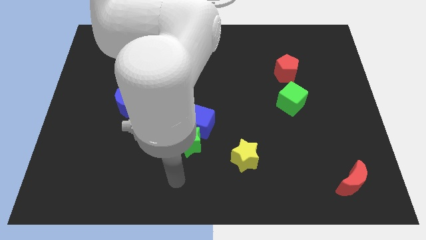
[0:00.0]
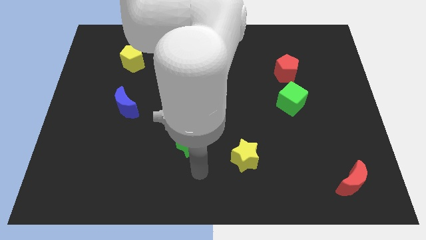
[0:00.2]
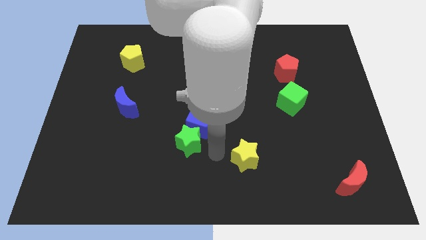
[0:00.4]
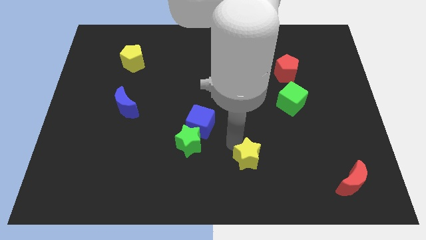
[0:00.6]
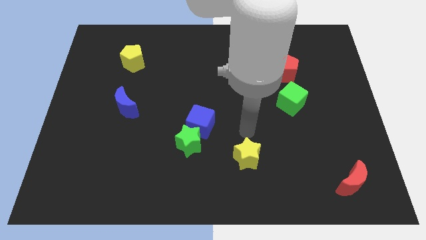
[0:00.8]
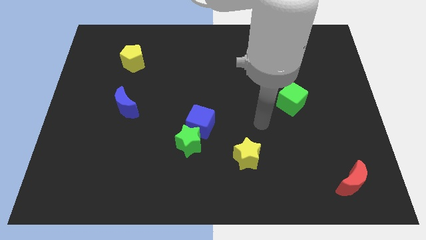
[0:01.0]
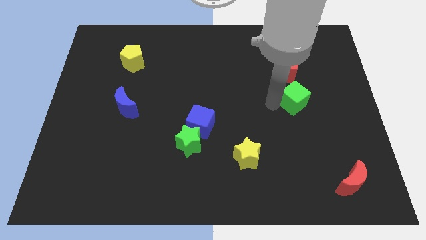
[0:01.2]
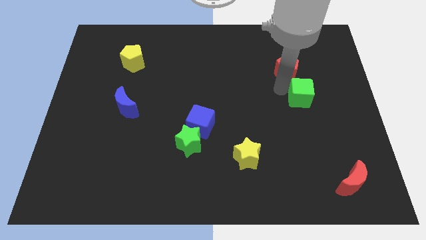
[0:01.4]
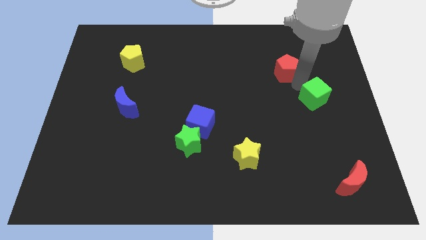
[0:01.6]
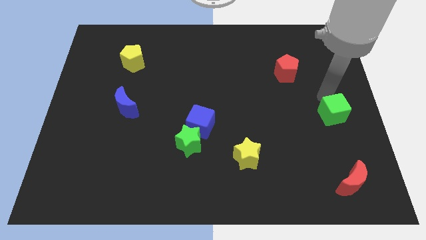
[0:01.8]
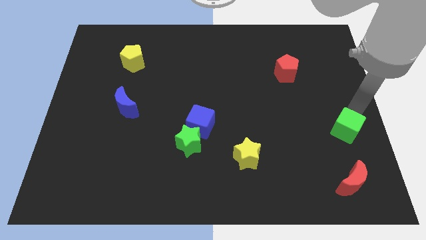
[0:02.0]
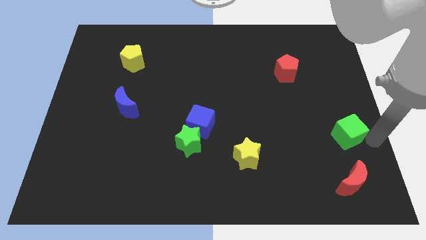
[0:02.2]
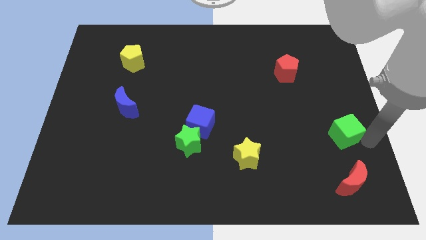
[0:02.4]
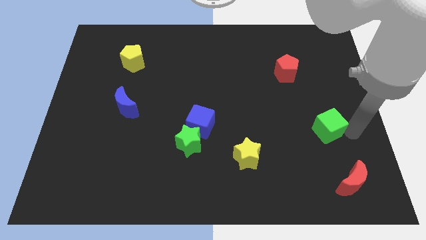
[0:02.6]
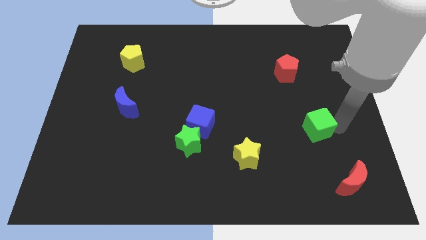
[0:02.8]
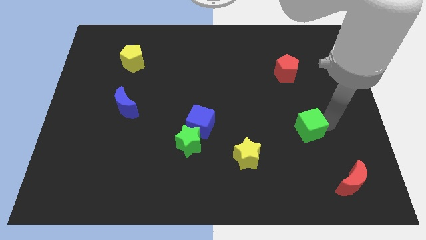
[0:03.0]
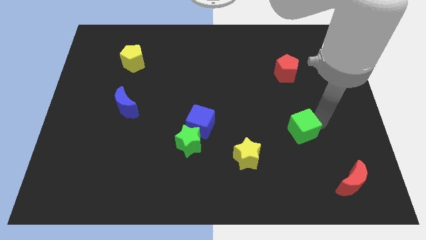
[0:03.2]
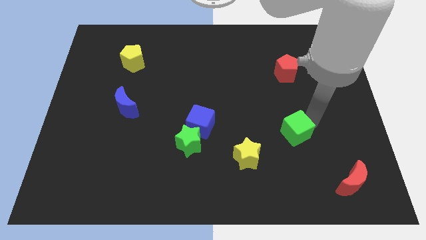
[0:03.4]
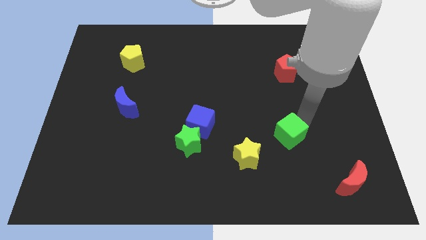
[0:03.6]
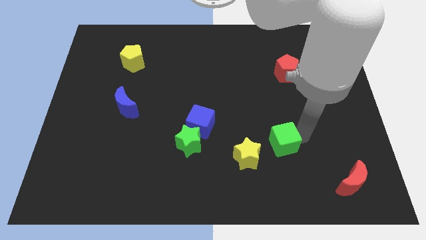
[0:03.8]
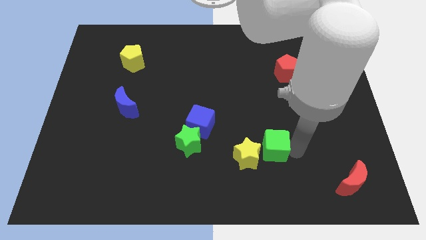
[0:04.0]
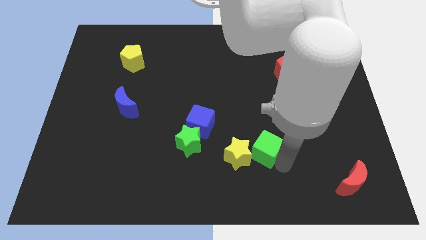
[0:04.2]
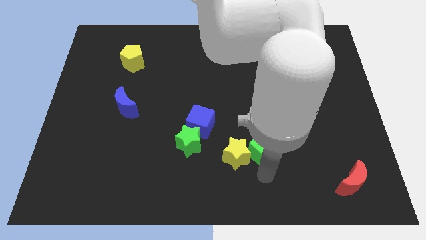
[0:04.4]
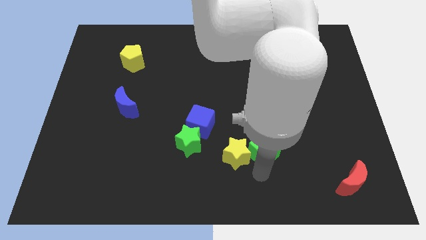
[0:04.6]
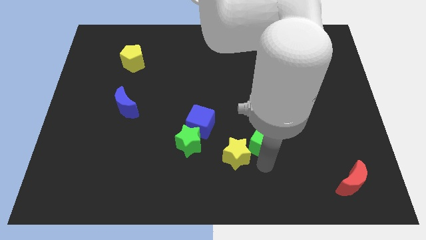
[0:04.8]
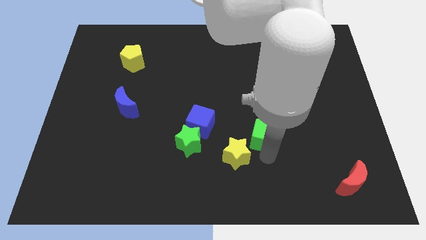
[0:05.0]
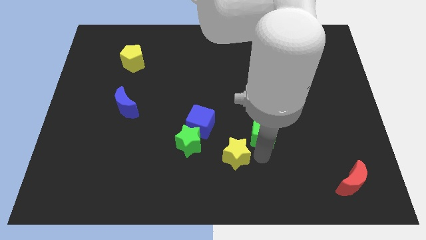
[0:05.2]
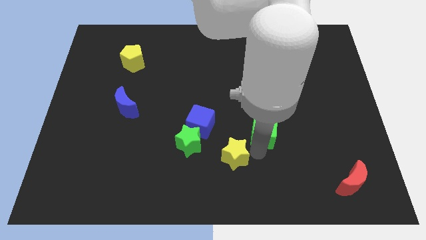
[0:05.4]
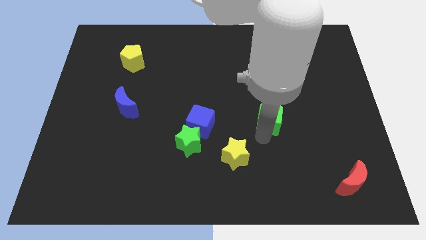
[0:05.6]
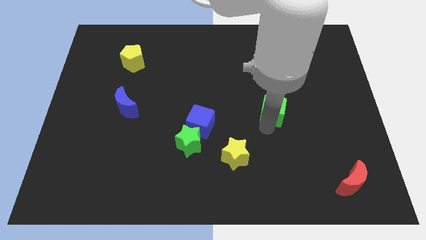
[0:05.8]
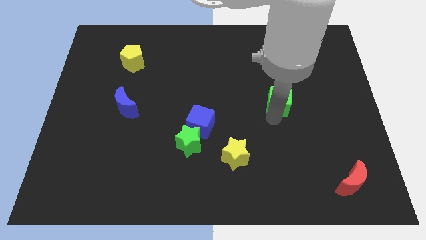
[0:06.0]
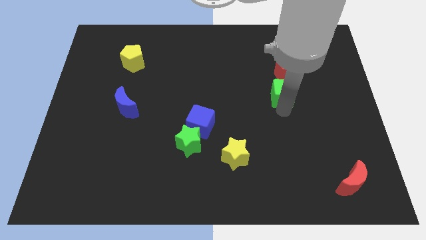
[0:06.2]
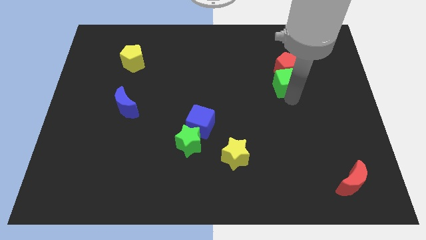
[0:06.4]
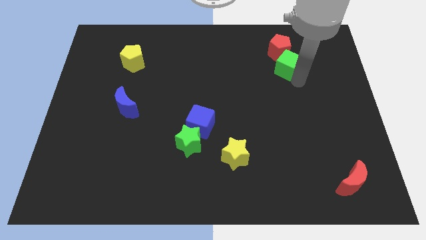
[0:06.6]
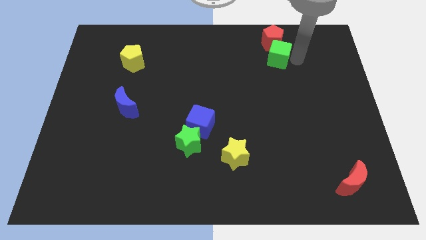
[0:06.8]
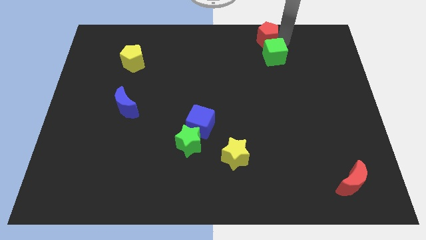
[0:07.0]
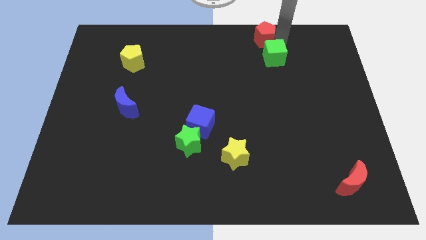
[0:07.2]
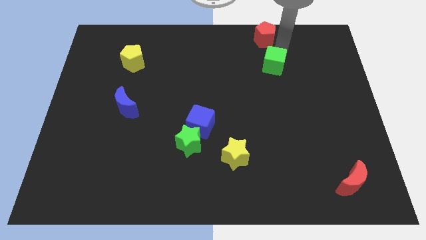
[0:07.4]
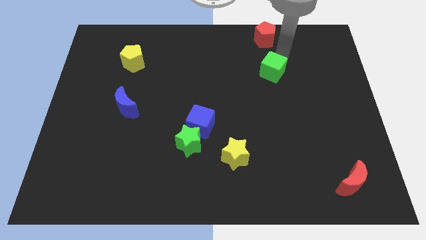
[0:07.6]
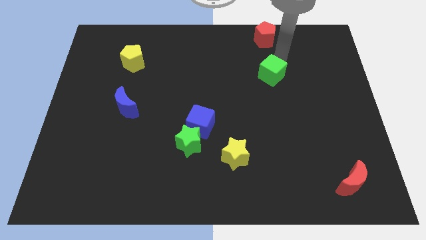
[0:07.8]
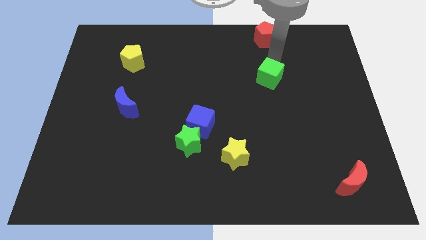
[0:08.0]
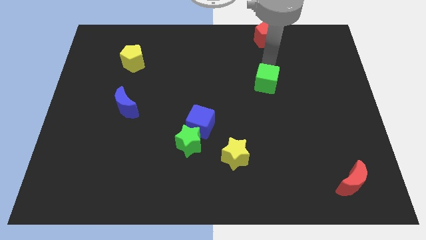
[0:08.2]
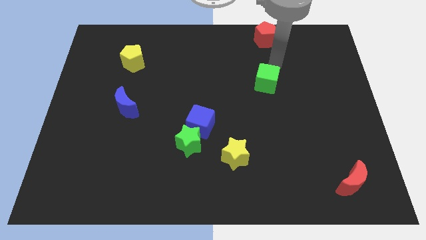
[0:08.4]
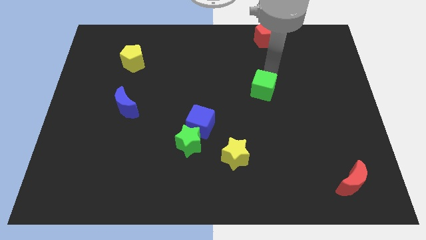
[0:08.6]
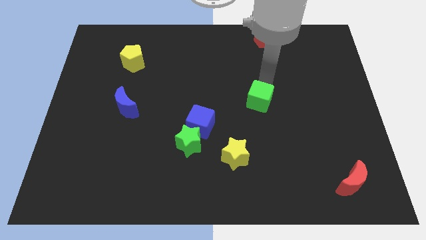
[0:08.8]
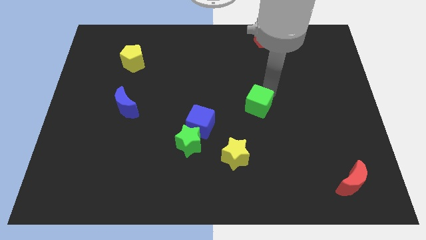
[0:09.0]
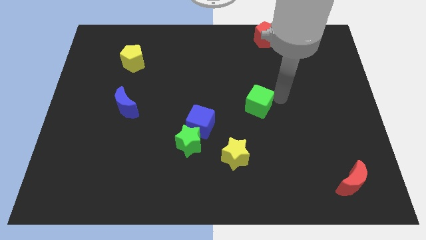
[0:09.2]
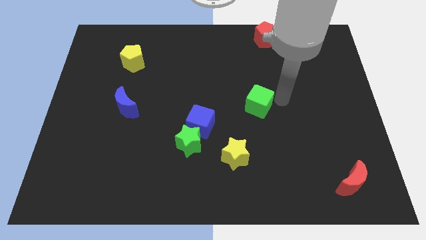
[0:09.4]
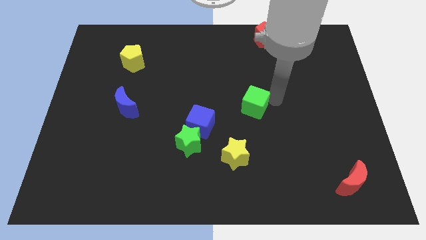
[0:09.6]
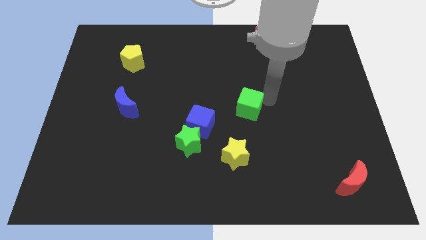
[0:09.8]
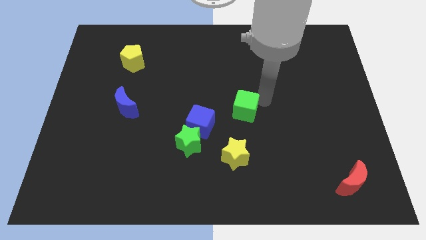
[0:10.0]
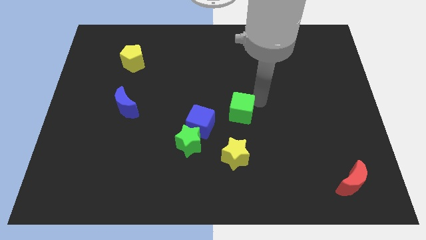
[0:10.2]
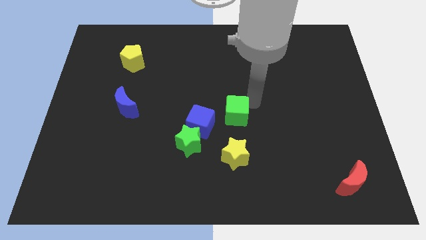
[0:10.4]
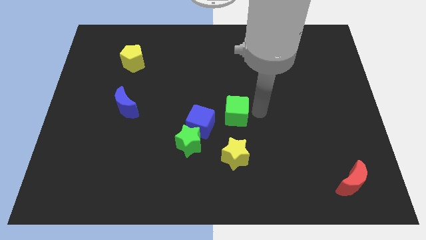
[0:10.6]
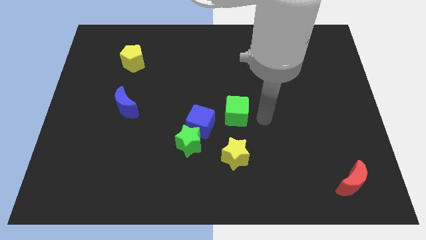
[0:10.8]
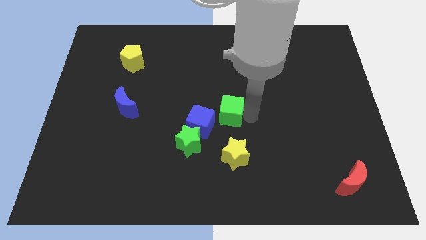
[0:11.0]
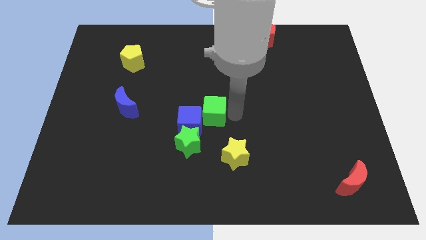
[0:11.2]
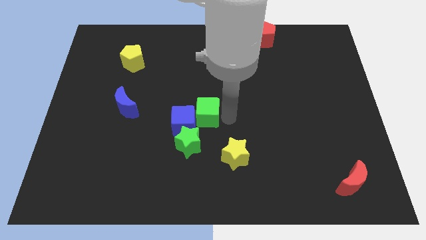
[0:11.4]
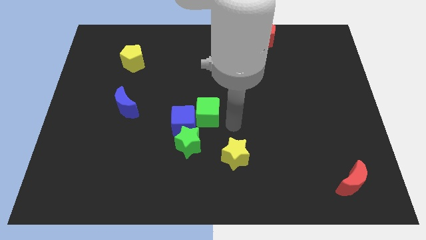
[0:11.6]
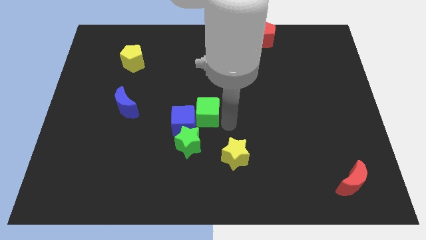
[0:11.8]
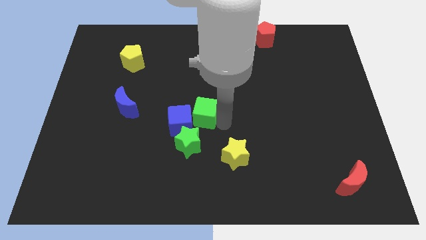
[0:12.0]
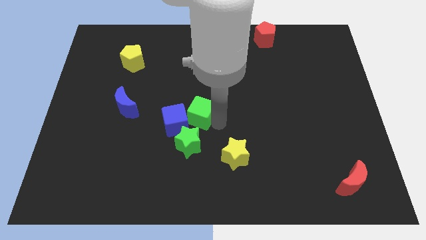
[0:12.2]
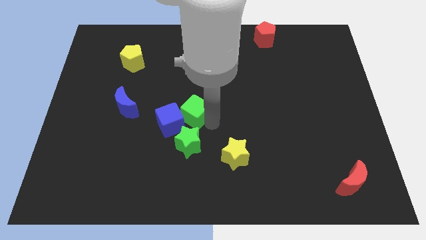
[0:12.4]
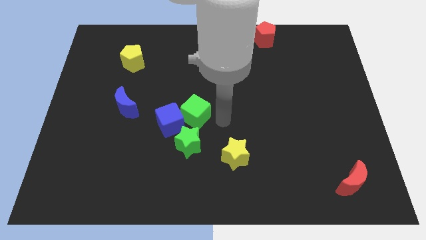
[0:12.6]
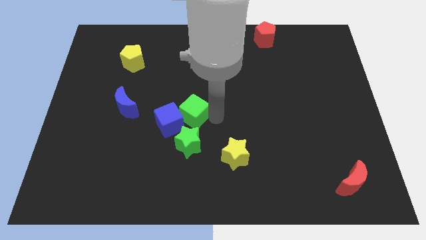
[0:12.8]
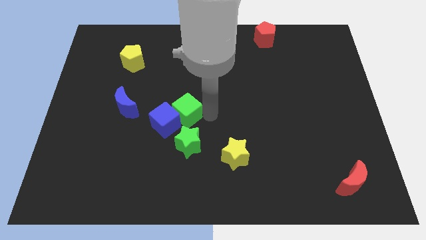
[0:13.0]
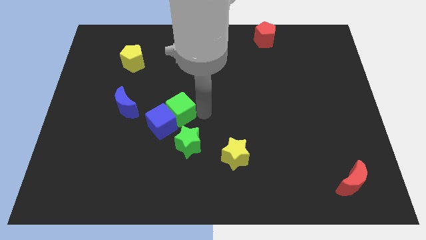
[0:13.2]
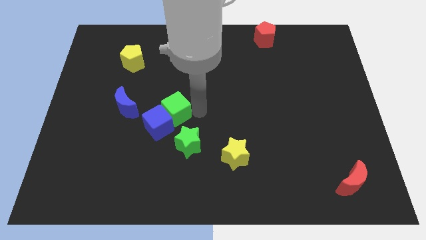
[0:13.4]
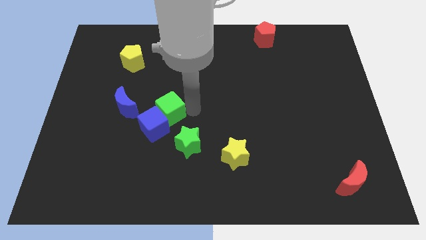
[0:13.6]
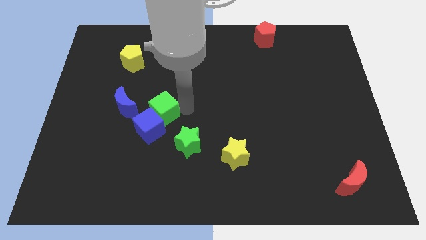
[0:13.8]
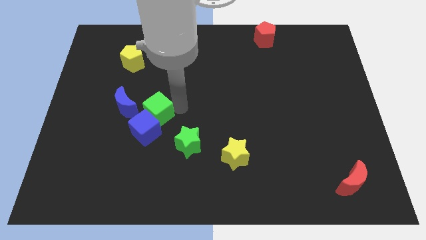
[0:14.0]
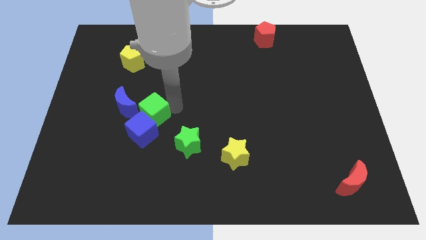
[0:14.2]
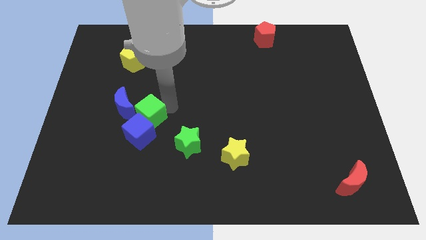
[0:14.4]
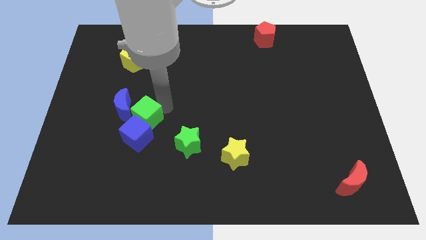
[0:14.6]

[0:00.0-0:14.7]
move the green cube towards the blue moon
